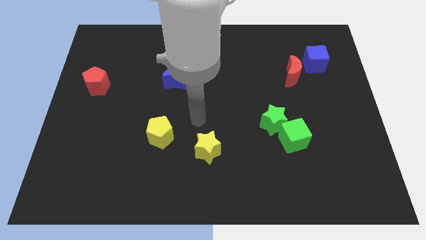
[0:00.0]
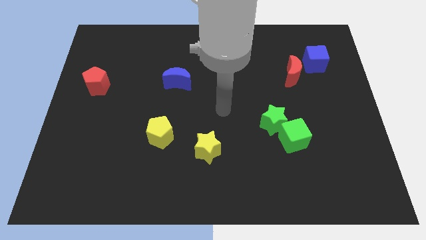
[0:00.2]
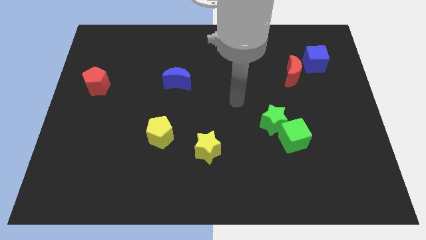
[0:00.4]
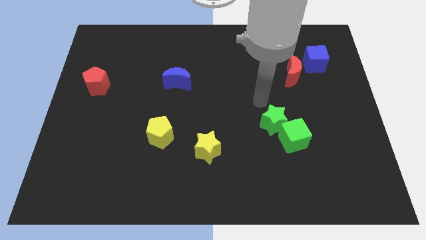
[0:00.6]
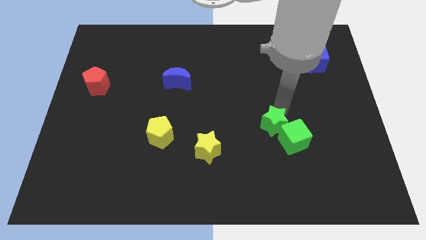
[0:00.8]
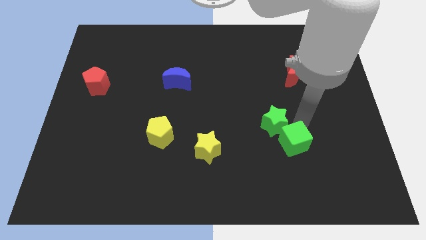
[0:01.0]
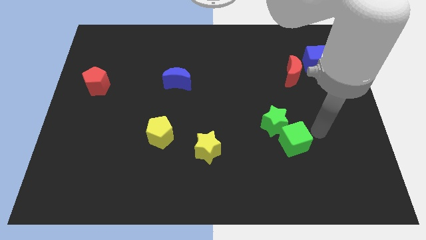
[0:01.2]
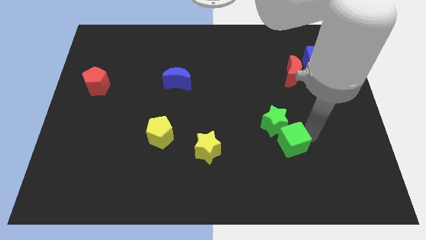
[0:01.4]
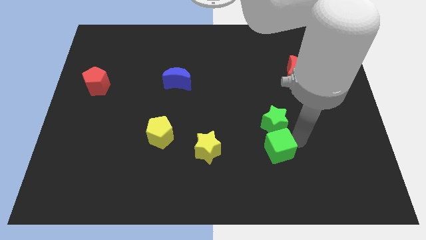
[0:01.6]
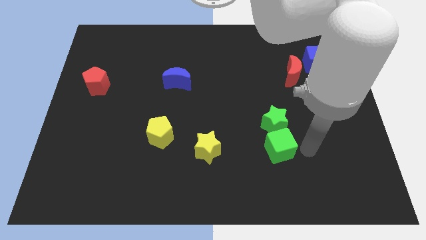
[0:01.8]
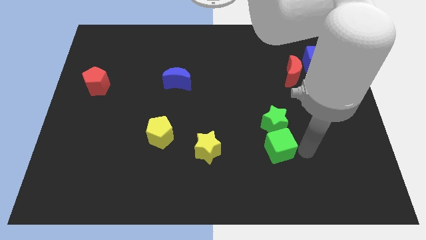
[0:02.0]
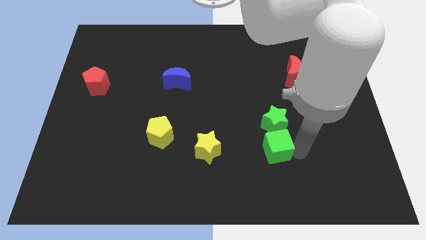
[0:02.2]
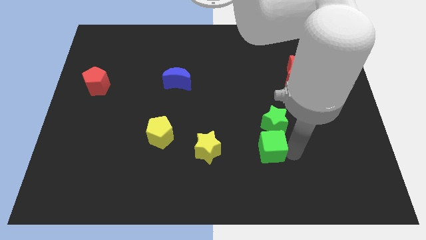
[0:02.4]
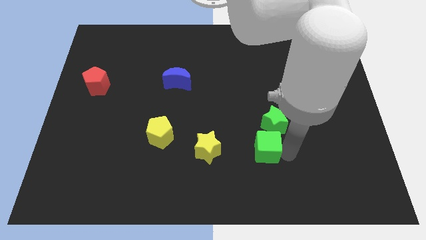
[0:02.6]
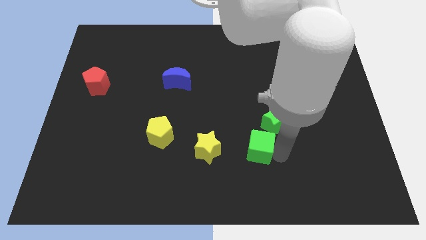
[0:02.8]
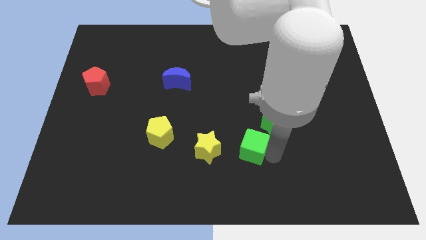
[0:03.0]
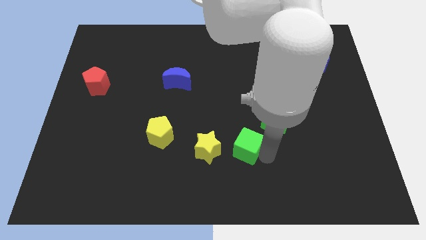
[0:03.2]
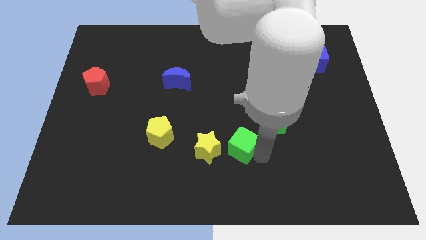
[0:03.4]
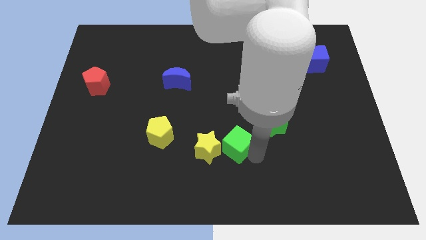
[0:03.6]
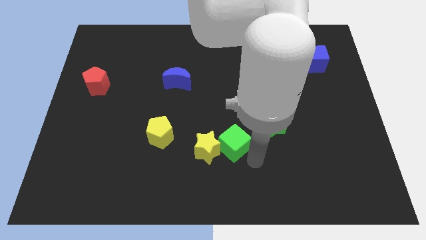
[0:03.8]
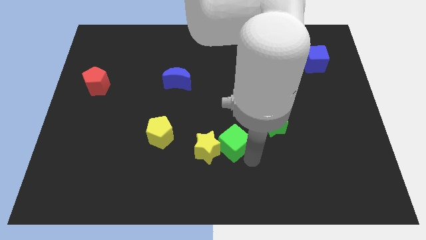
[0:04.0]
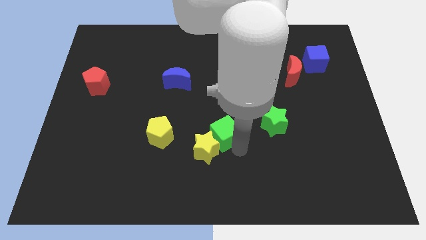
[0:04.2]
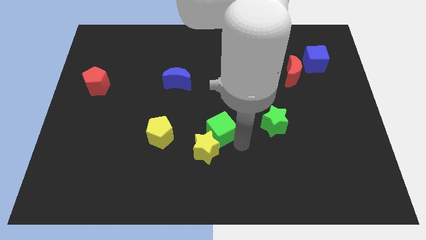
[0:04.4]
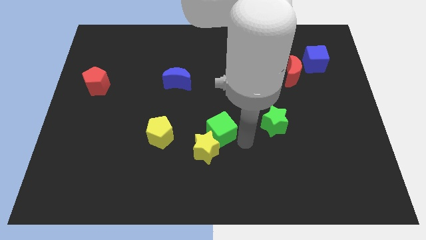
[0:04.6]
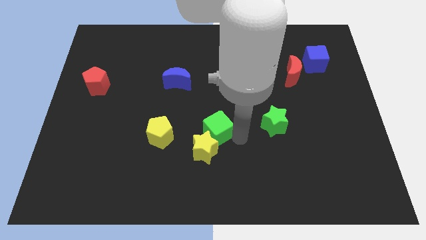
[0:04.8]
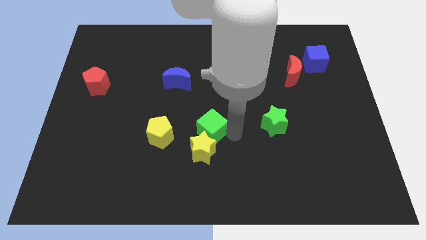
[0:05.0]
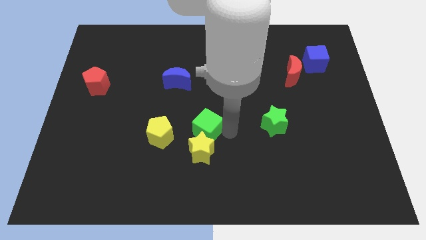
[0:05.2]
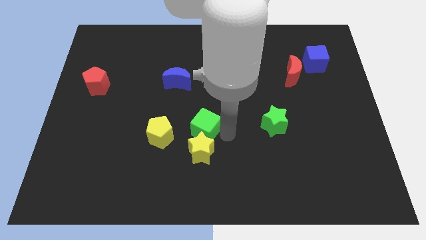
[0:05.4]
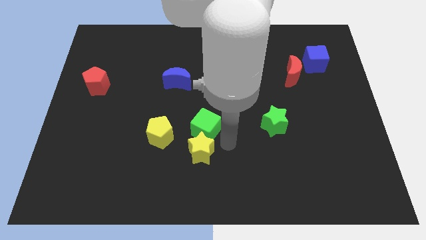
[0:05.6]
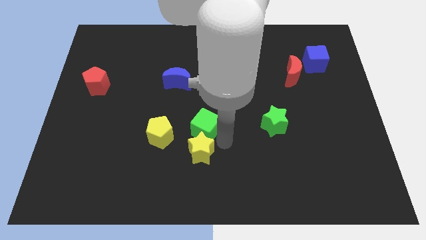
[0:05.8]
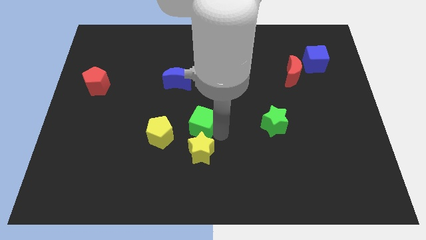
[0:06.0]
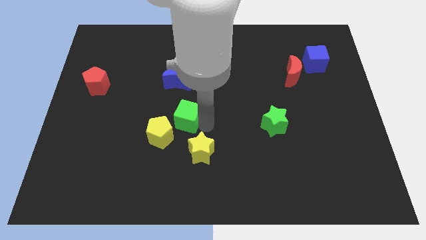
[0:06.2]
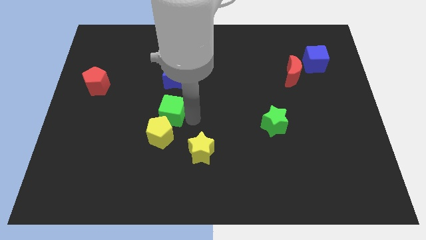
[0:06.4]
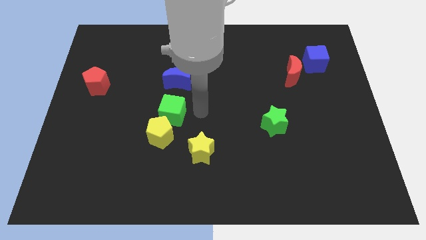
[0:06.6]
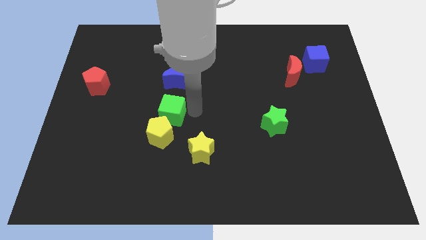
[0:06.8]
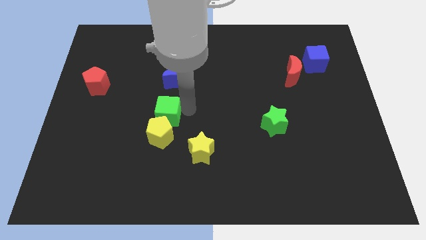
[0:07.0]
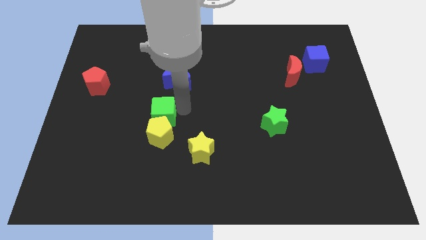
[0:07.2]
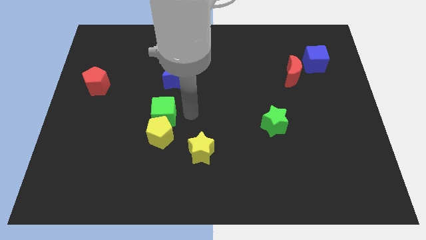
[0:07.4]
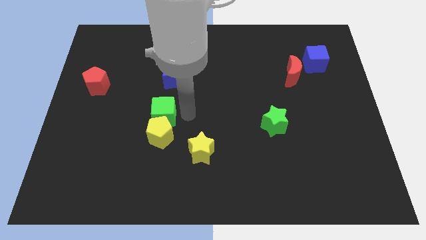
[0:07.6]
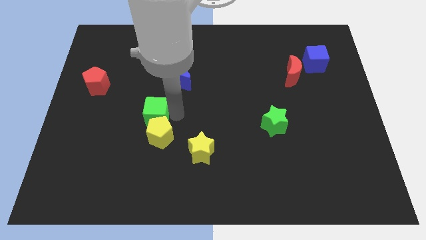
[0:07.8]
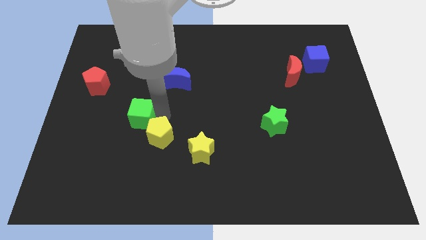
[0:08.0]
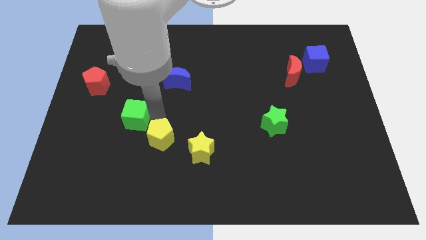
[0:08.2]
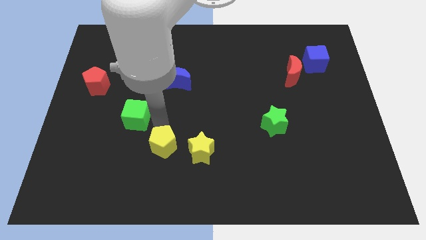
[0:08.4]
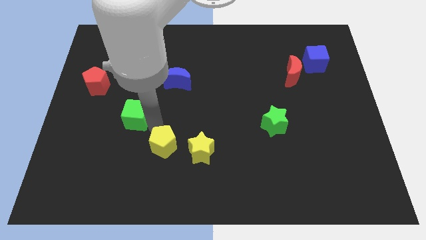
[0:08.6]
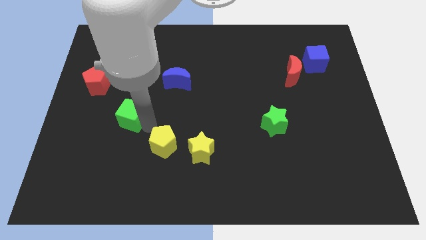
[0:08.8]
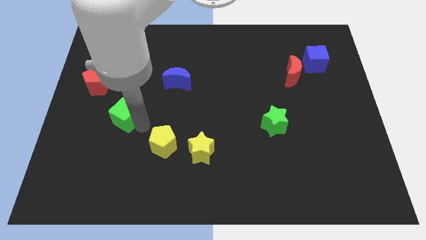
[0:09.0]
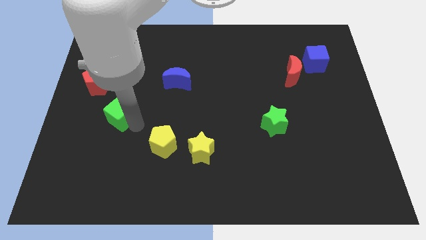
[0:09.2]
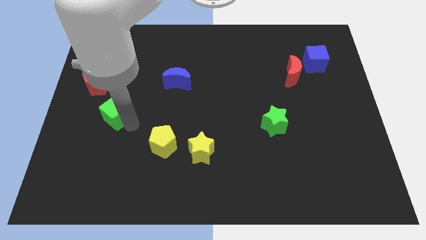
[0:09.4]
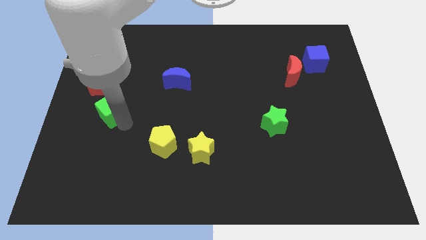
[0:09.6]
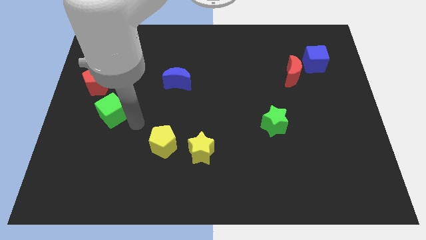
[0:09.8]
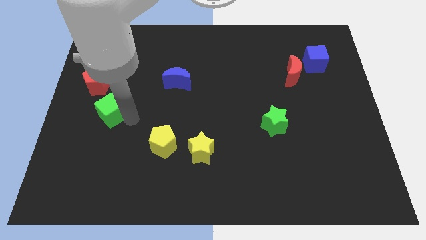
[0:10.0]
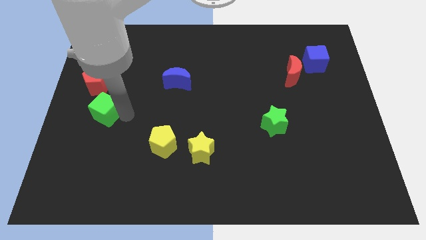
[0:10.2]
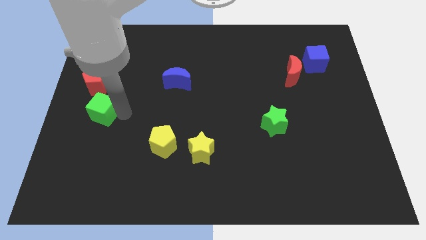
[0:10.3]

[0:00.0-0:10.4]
move the green cube to the left side of the board

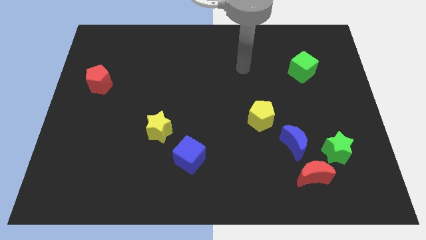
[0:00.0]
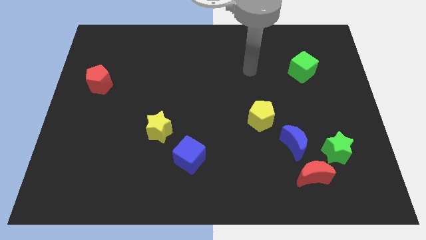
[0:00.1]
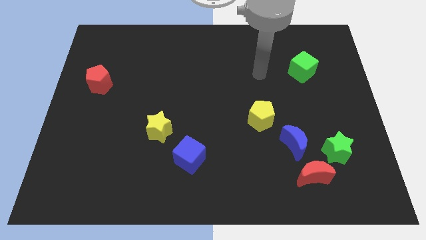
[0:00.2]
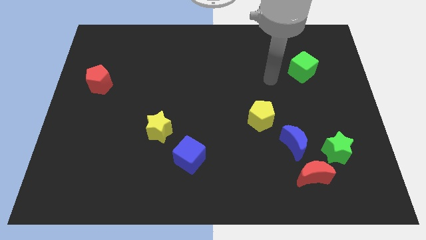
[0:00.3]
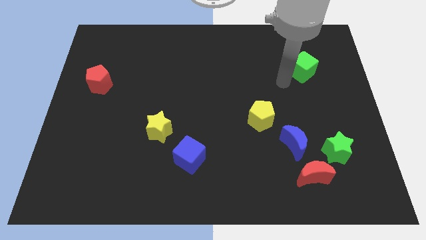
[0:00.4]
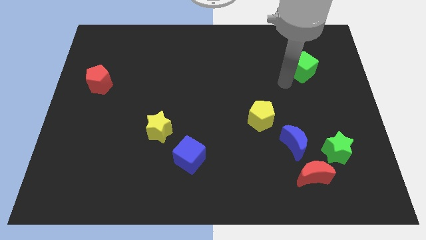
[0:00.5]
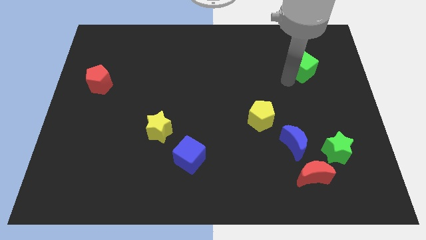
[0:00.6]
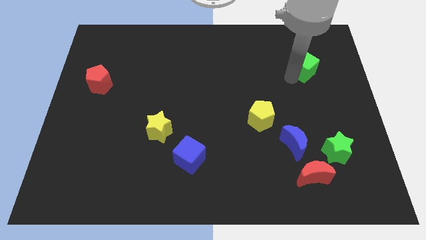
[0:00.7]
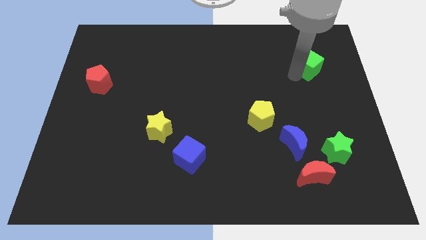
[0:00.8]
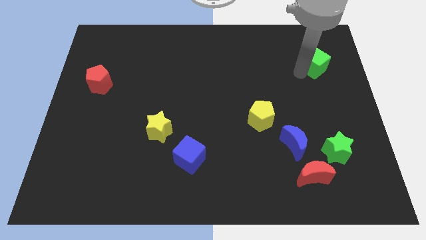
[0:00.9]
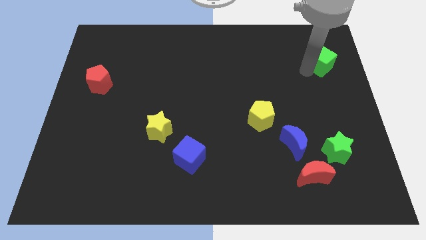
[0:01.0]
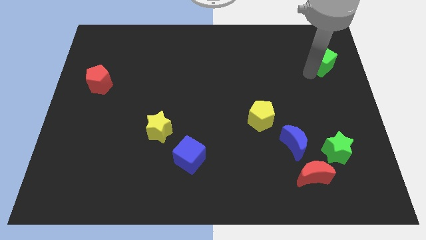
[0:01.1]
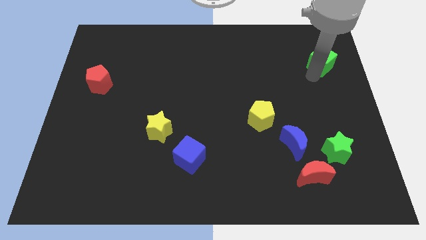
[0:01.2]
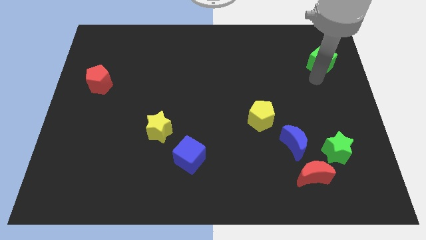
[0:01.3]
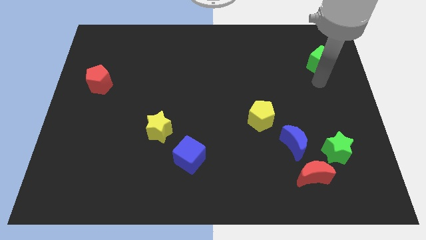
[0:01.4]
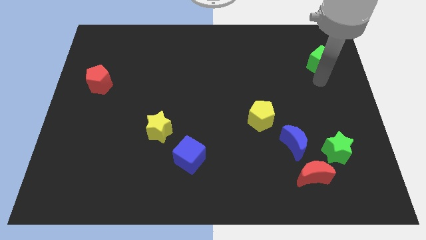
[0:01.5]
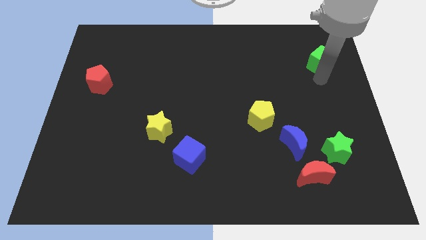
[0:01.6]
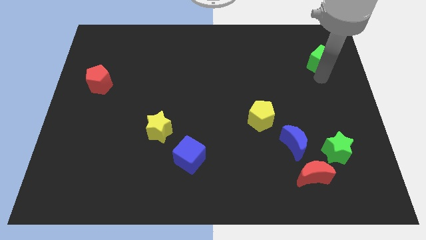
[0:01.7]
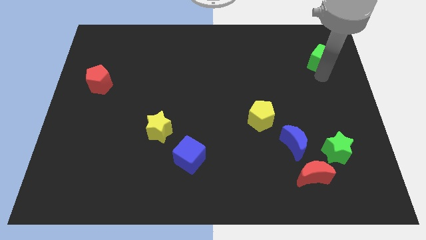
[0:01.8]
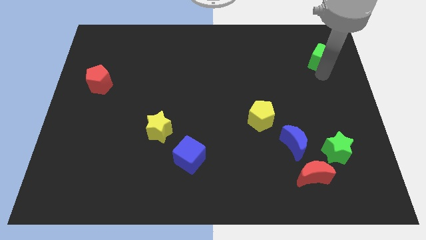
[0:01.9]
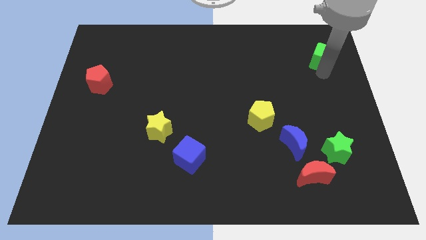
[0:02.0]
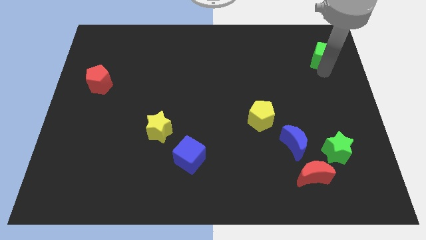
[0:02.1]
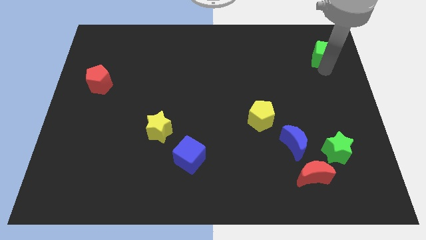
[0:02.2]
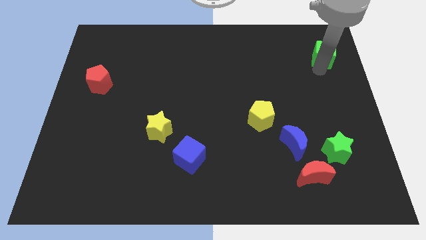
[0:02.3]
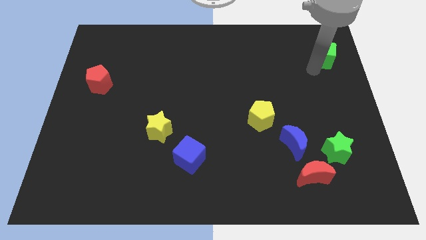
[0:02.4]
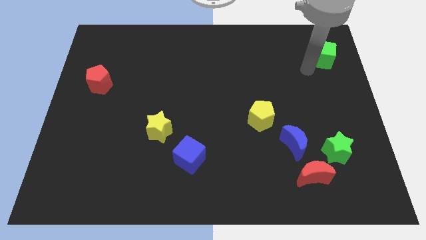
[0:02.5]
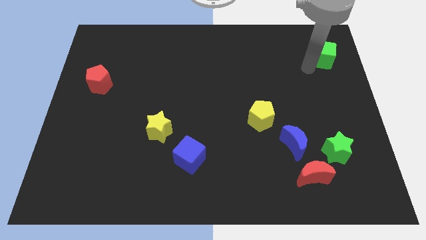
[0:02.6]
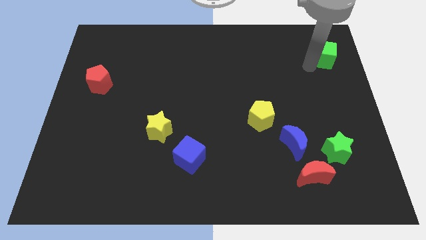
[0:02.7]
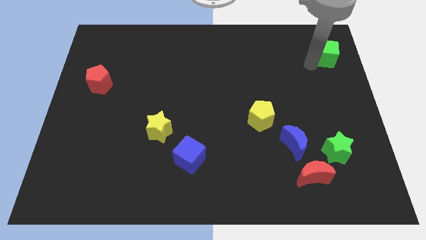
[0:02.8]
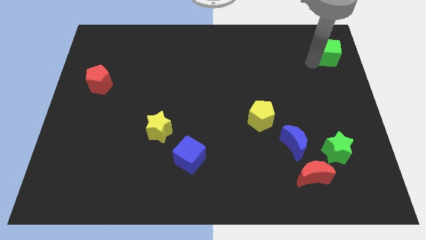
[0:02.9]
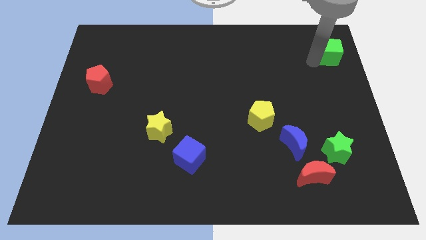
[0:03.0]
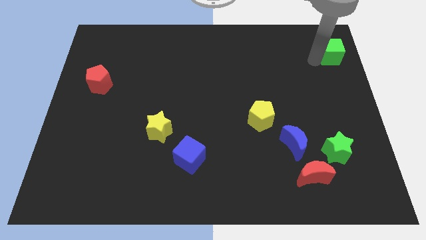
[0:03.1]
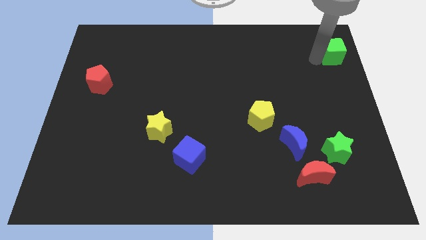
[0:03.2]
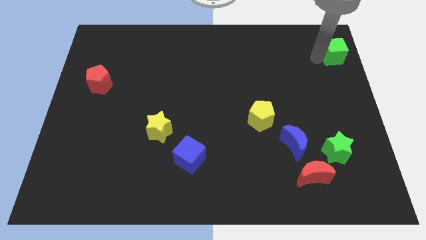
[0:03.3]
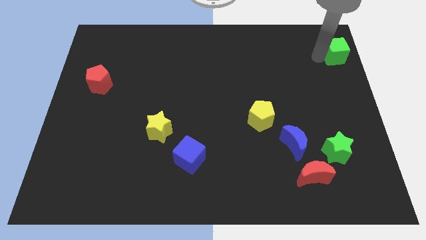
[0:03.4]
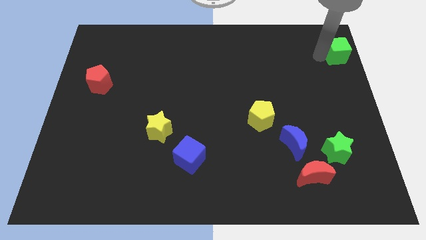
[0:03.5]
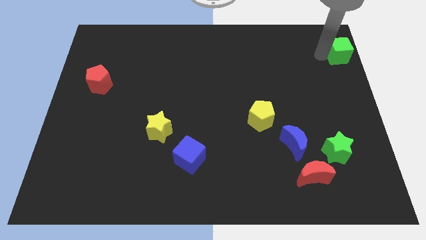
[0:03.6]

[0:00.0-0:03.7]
put the green cube to the top right corner
